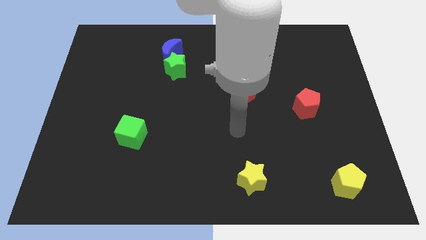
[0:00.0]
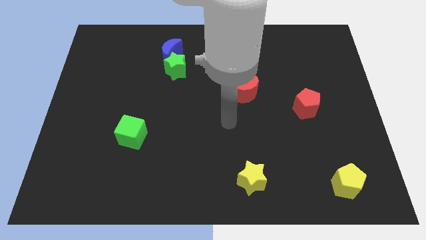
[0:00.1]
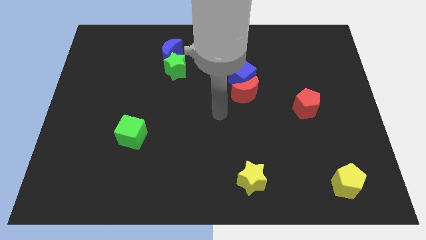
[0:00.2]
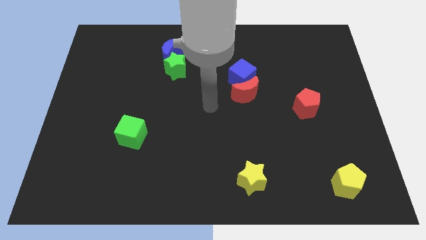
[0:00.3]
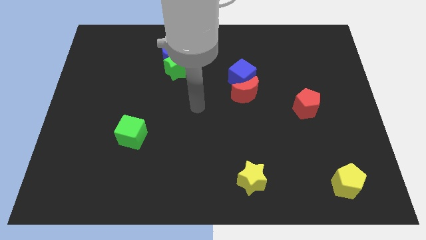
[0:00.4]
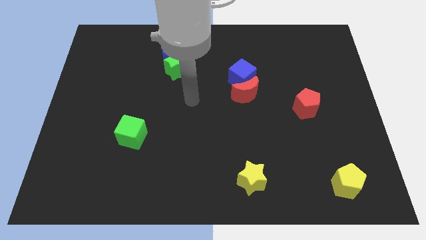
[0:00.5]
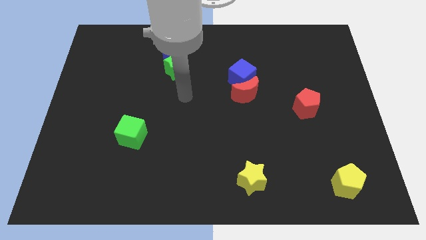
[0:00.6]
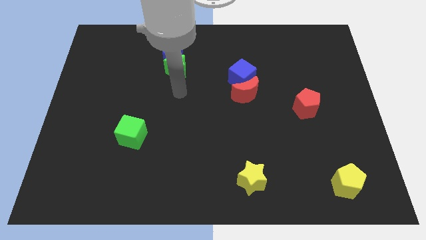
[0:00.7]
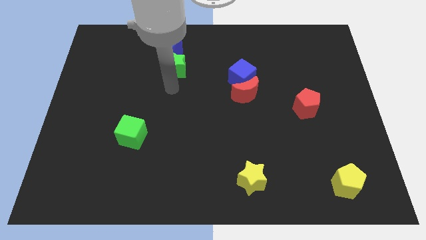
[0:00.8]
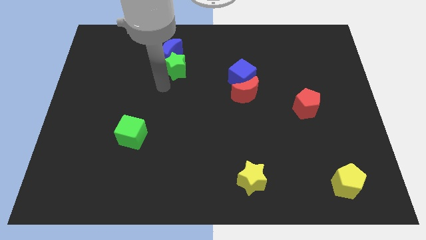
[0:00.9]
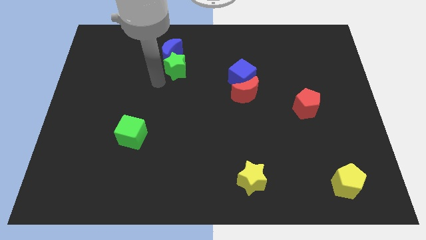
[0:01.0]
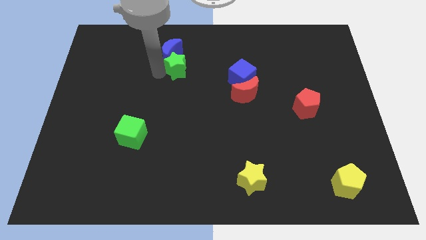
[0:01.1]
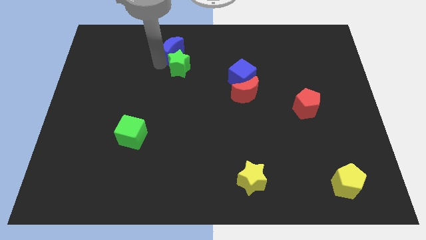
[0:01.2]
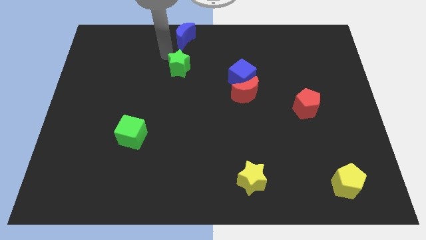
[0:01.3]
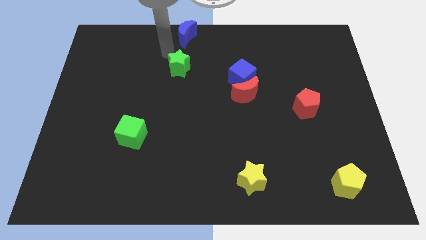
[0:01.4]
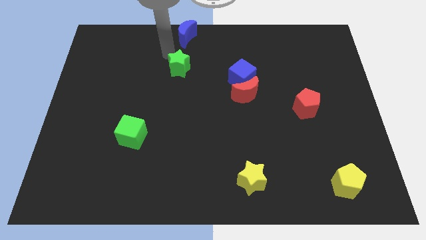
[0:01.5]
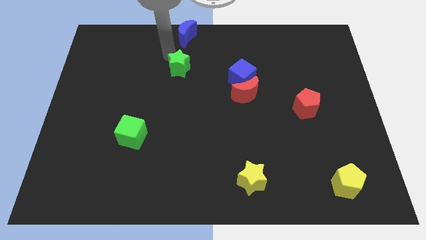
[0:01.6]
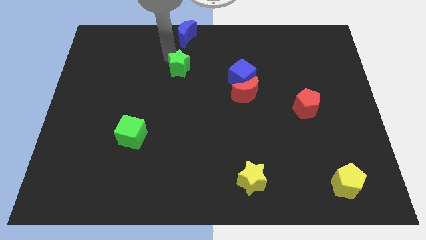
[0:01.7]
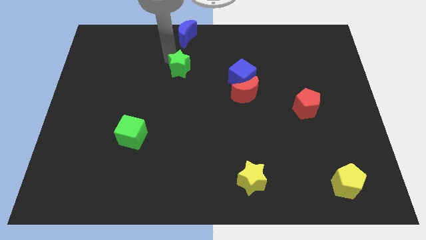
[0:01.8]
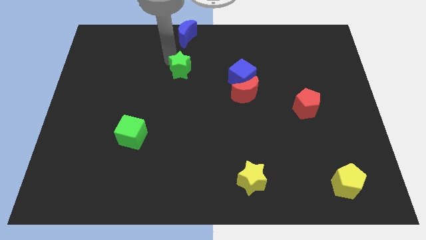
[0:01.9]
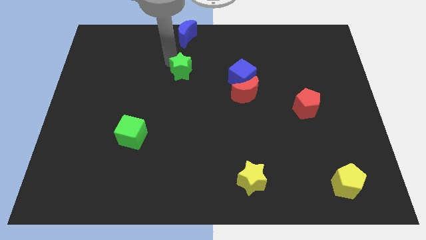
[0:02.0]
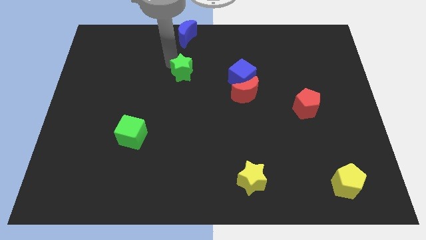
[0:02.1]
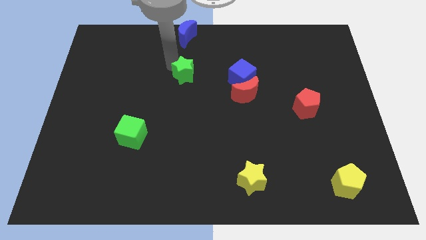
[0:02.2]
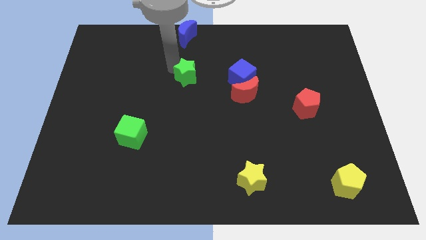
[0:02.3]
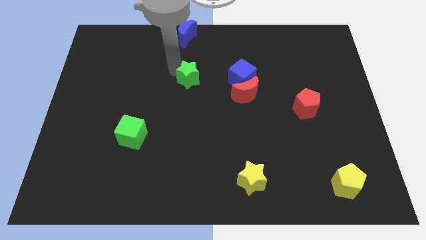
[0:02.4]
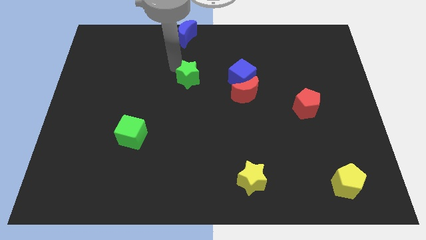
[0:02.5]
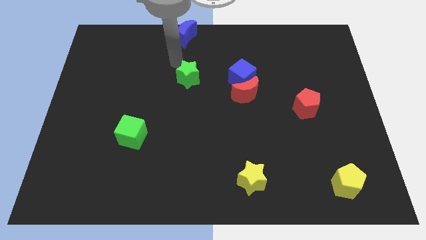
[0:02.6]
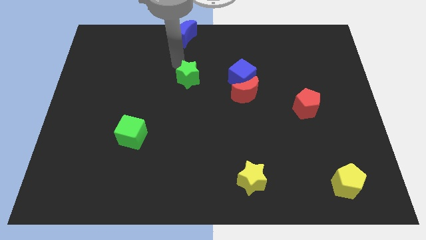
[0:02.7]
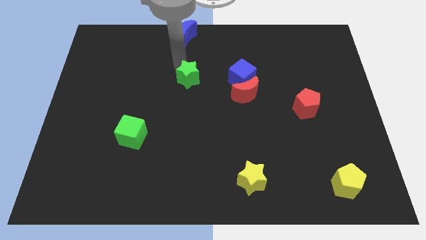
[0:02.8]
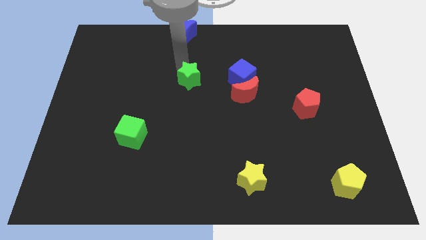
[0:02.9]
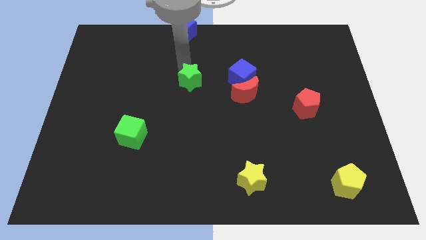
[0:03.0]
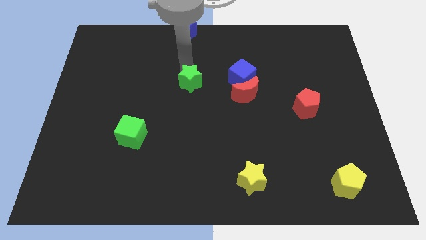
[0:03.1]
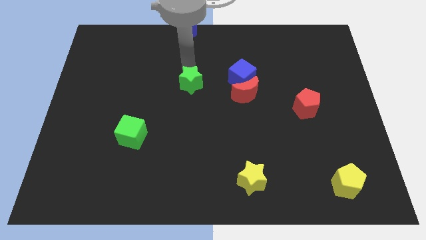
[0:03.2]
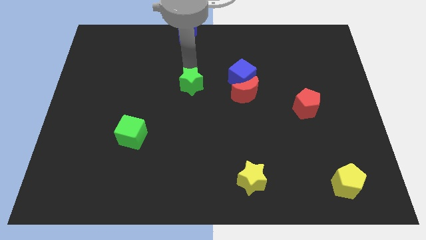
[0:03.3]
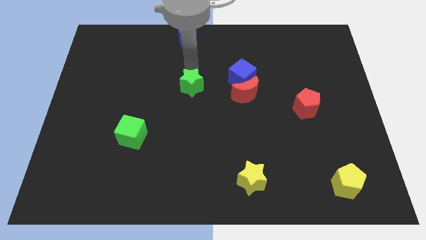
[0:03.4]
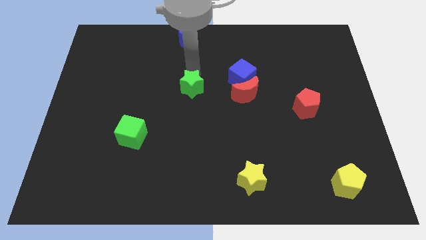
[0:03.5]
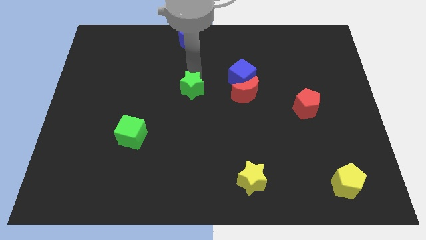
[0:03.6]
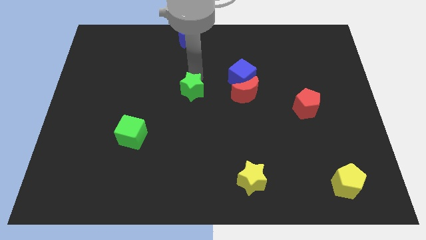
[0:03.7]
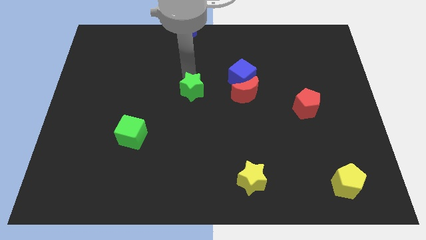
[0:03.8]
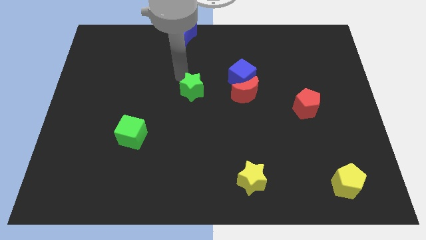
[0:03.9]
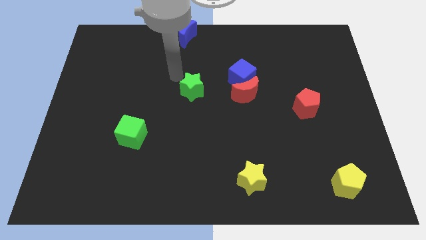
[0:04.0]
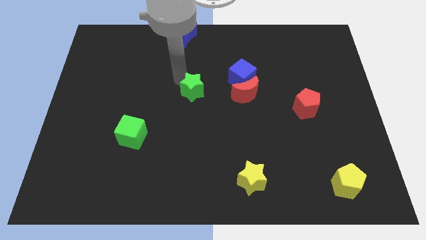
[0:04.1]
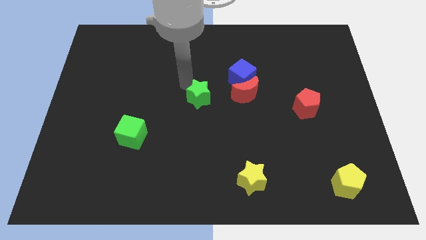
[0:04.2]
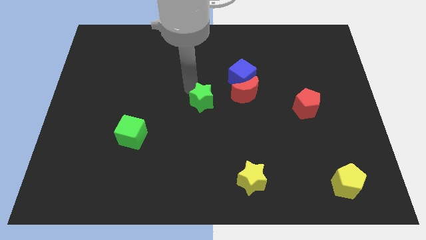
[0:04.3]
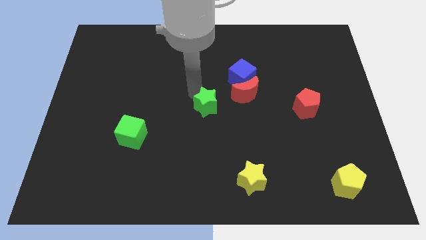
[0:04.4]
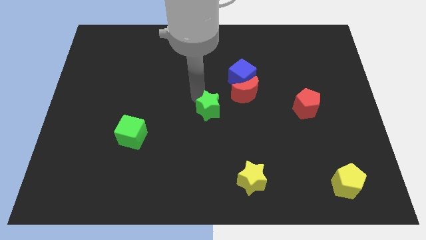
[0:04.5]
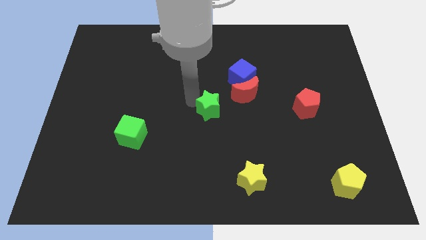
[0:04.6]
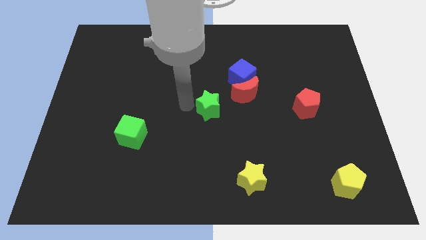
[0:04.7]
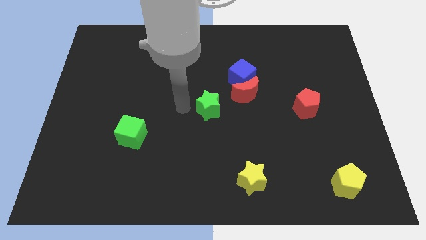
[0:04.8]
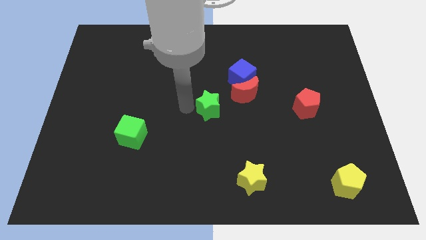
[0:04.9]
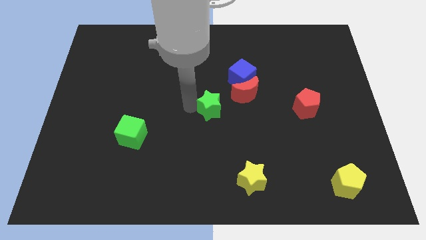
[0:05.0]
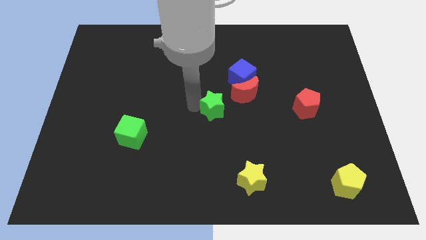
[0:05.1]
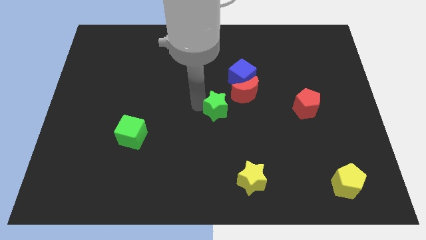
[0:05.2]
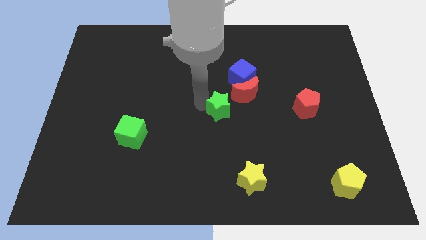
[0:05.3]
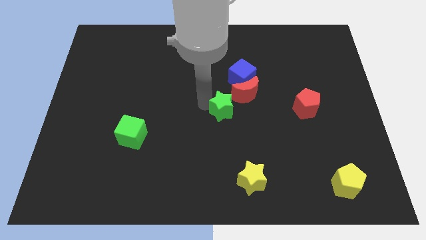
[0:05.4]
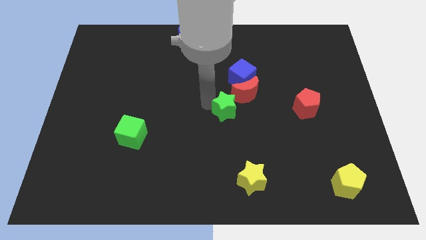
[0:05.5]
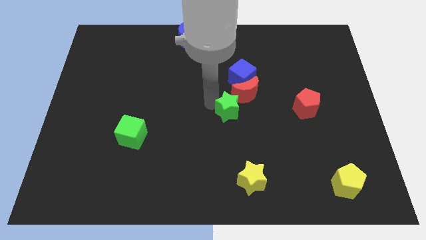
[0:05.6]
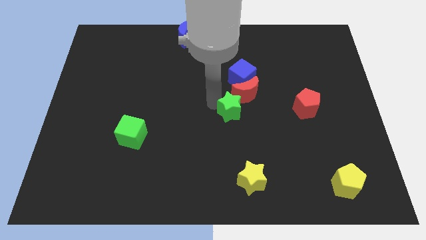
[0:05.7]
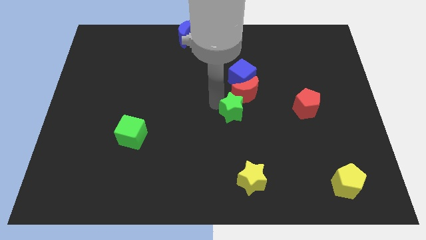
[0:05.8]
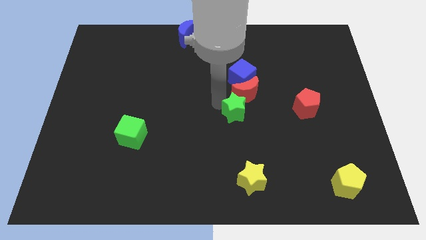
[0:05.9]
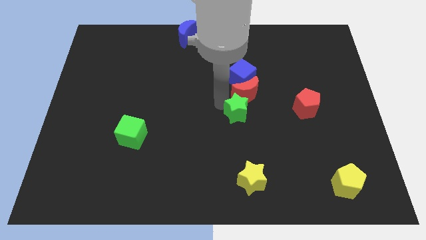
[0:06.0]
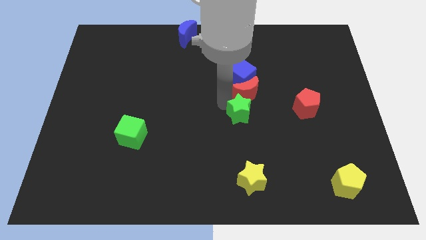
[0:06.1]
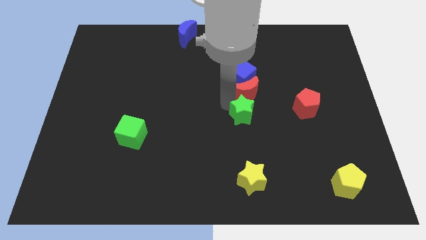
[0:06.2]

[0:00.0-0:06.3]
push the green star to the bottom right side of the red moon

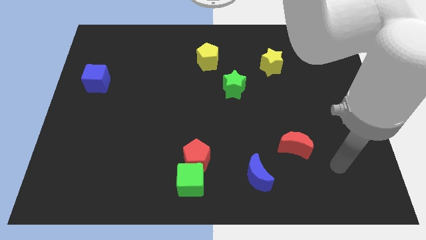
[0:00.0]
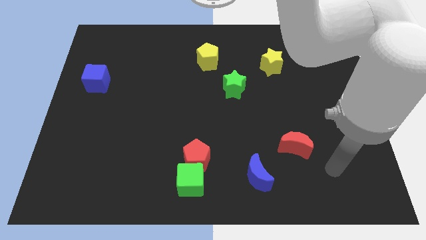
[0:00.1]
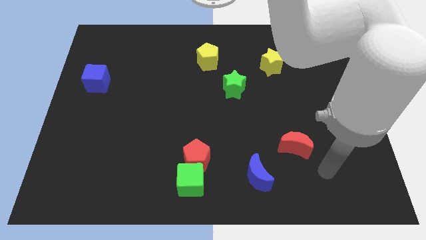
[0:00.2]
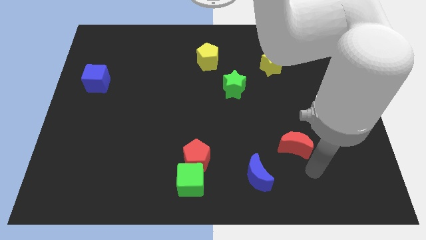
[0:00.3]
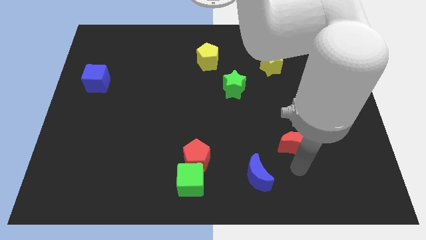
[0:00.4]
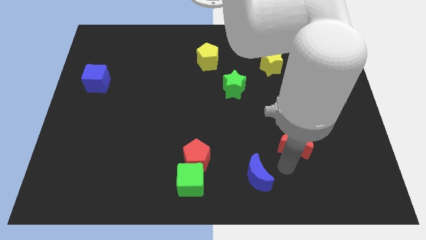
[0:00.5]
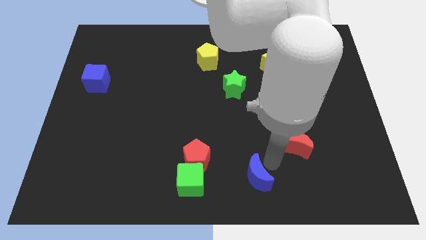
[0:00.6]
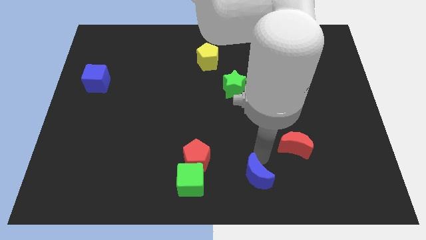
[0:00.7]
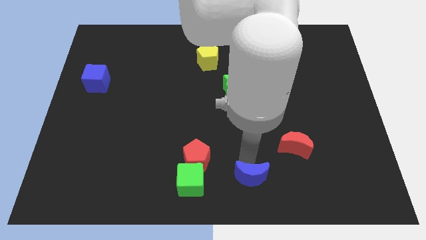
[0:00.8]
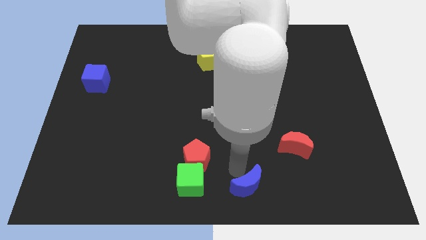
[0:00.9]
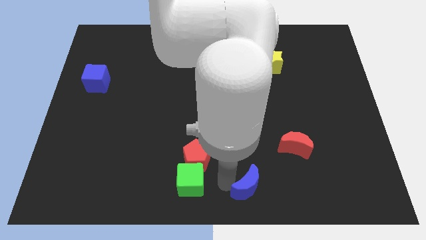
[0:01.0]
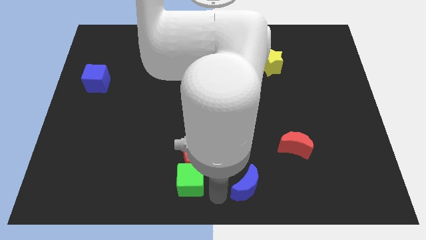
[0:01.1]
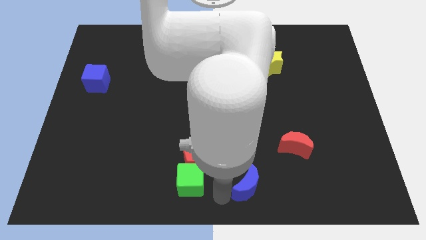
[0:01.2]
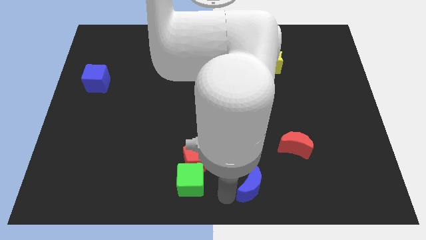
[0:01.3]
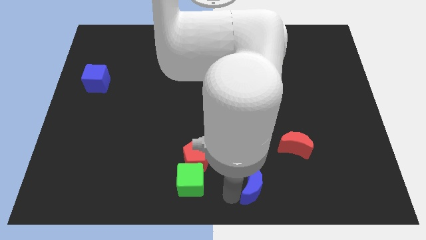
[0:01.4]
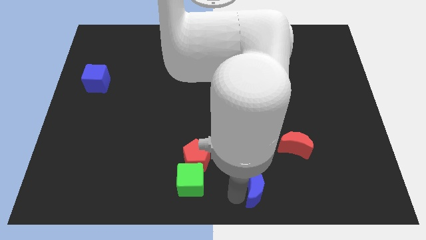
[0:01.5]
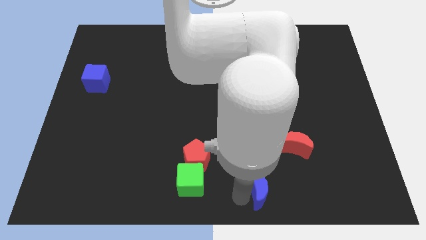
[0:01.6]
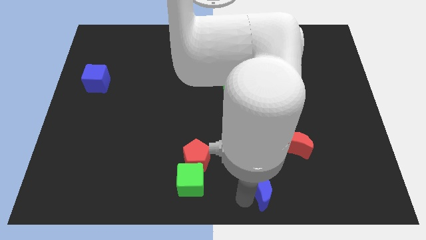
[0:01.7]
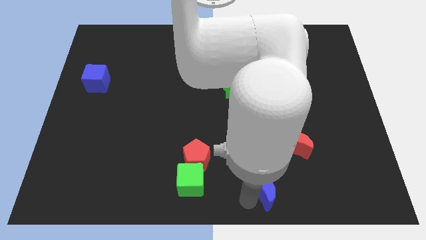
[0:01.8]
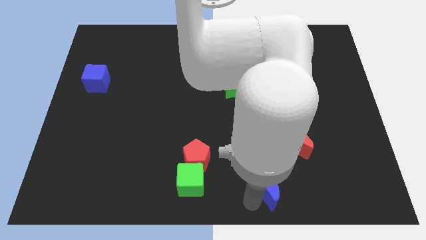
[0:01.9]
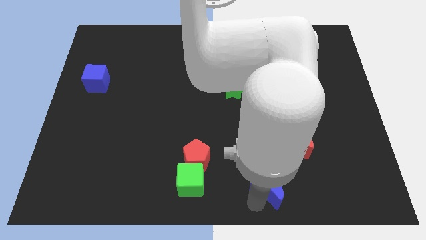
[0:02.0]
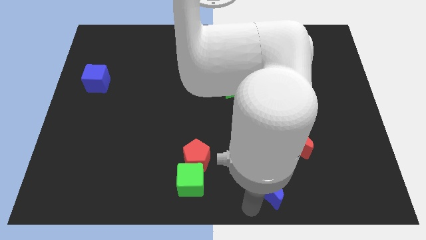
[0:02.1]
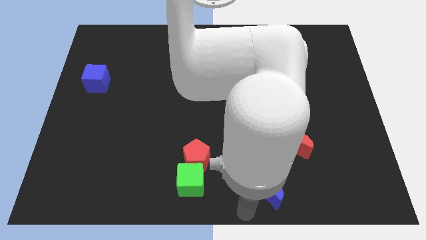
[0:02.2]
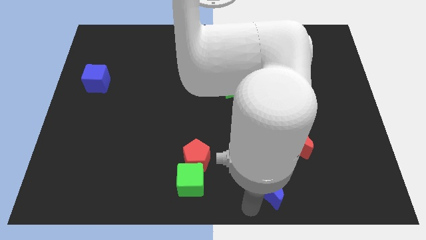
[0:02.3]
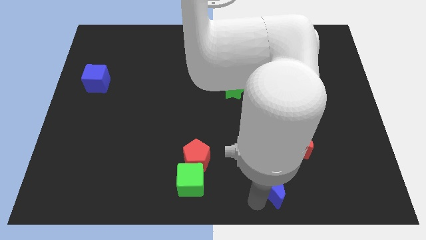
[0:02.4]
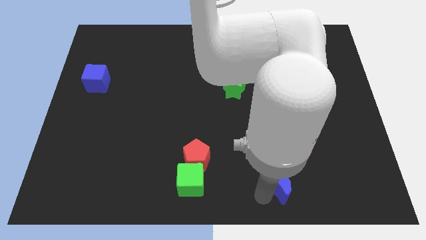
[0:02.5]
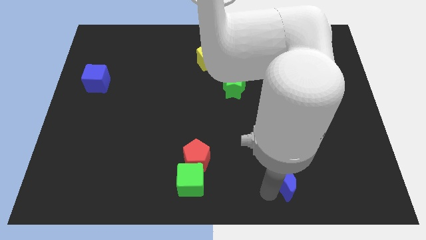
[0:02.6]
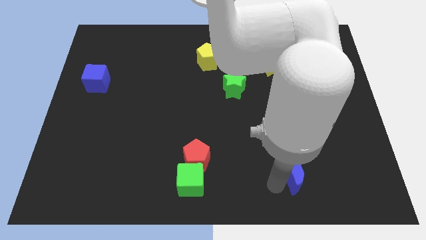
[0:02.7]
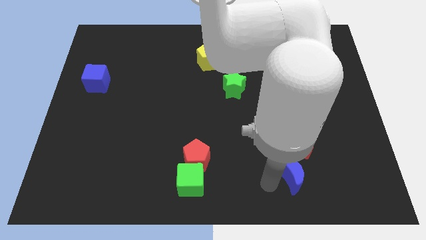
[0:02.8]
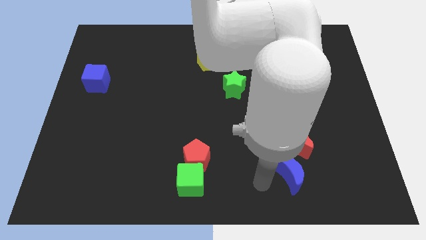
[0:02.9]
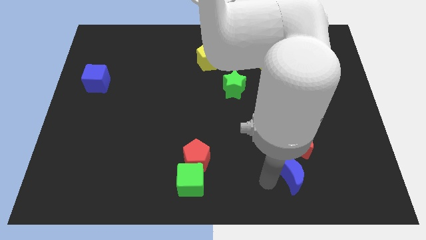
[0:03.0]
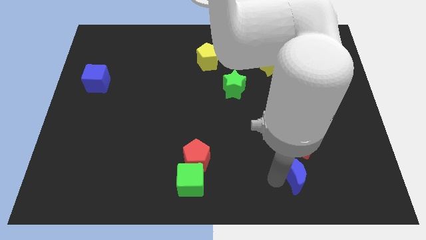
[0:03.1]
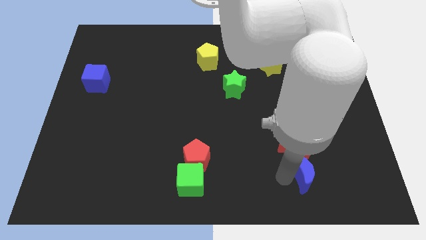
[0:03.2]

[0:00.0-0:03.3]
push the blue moon to the bottom right of the red moon
